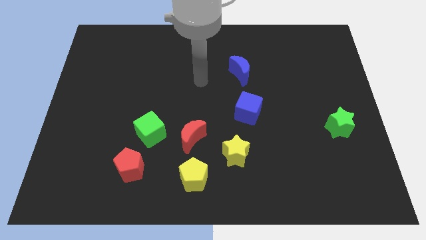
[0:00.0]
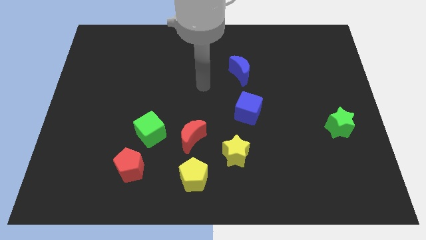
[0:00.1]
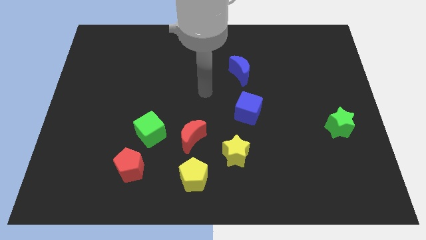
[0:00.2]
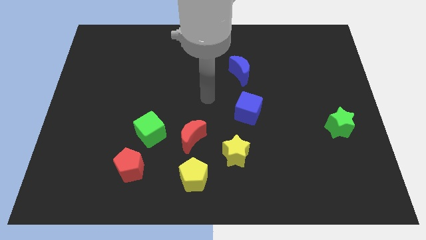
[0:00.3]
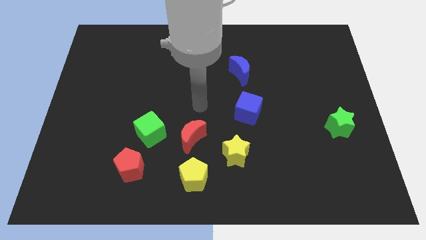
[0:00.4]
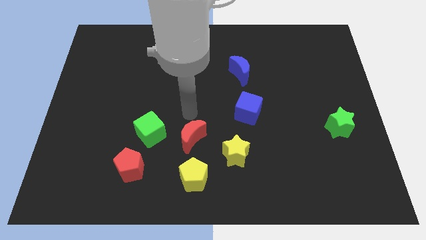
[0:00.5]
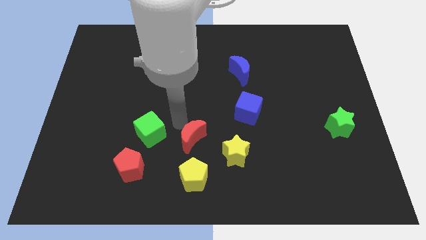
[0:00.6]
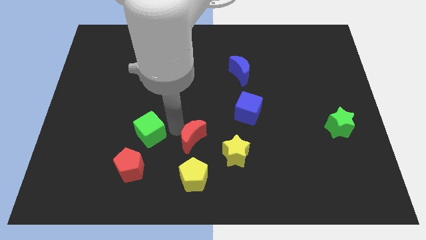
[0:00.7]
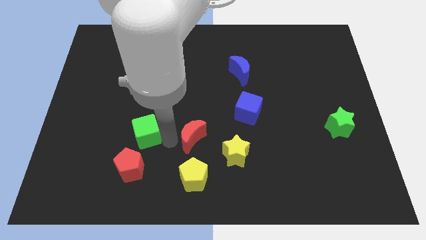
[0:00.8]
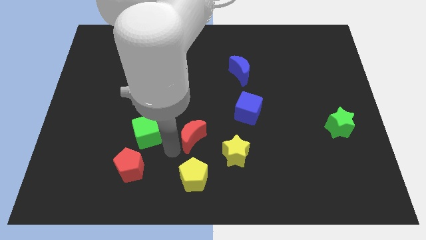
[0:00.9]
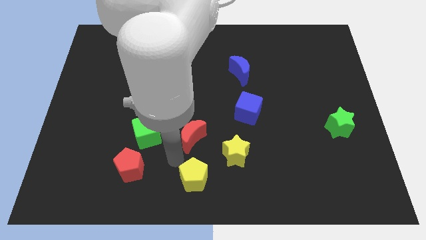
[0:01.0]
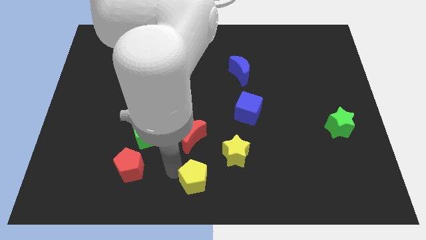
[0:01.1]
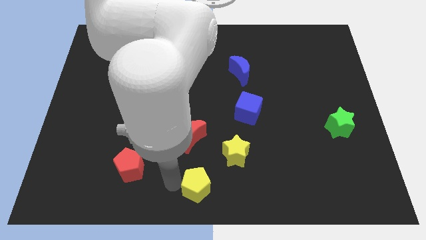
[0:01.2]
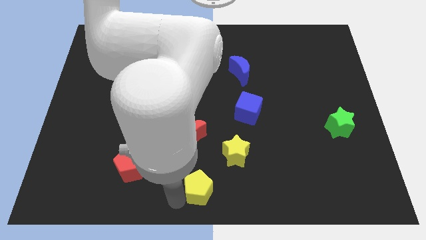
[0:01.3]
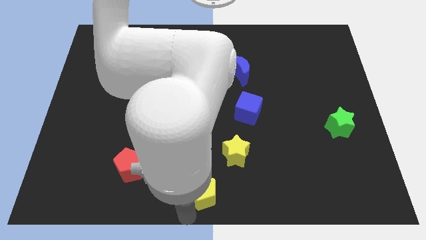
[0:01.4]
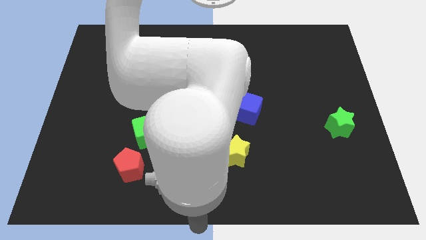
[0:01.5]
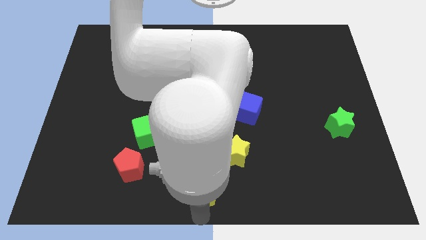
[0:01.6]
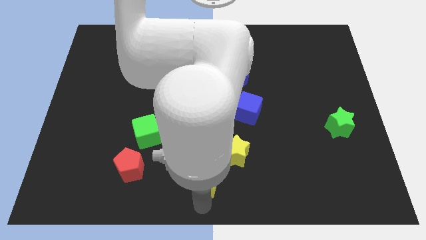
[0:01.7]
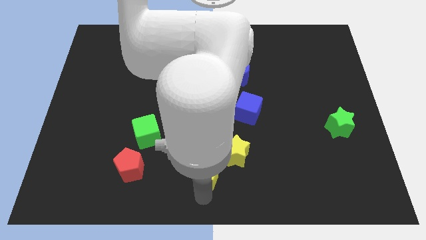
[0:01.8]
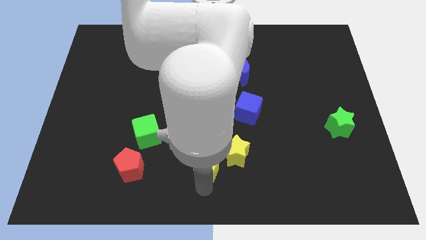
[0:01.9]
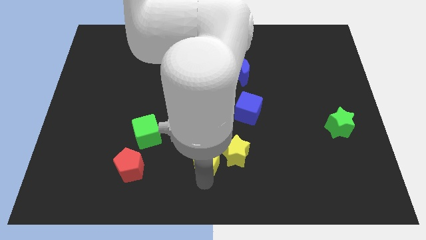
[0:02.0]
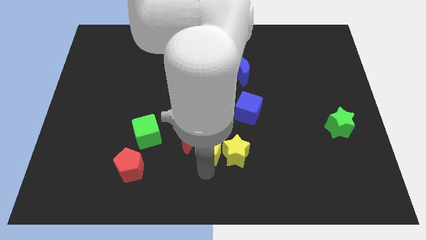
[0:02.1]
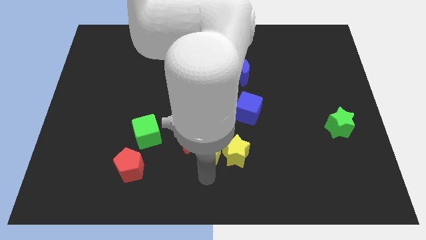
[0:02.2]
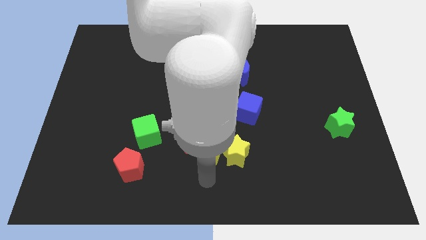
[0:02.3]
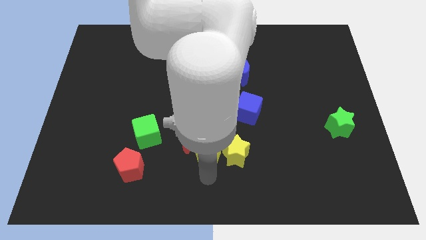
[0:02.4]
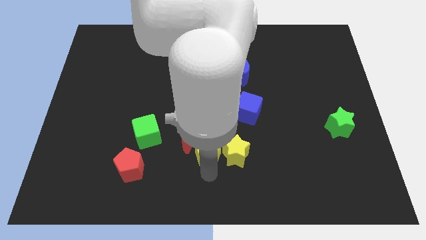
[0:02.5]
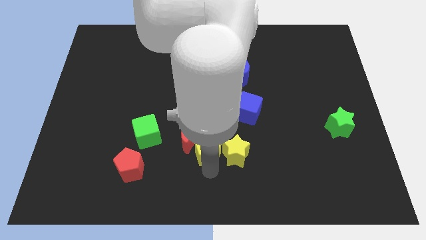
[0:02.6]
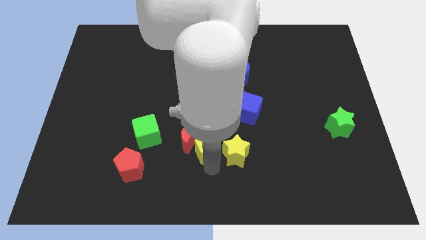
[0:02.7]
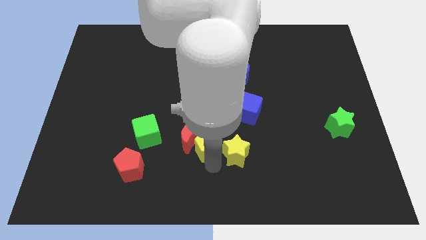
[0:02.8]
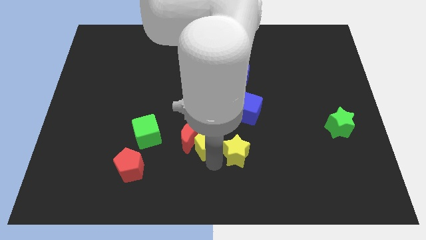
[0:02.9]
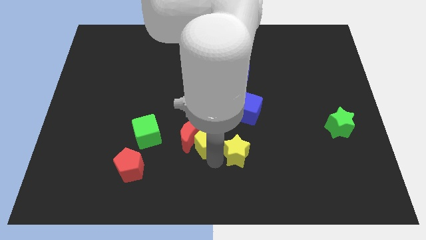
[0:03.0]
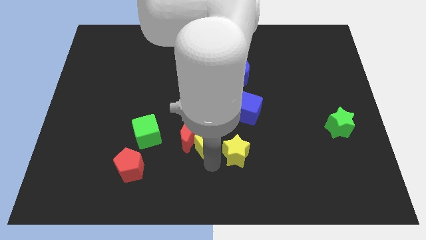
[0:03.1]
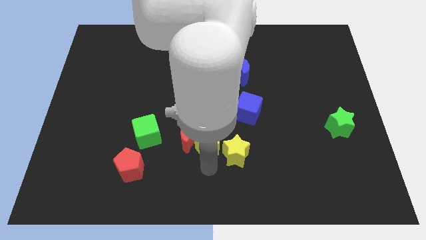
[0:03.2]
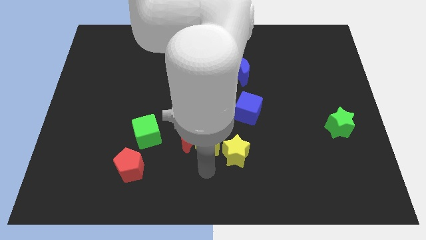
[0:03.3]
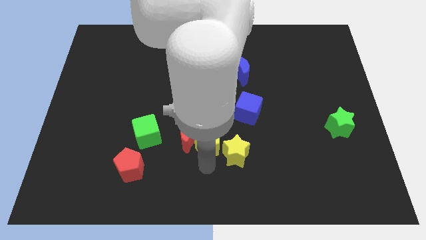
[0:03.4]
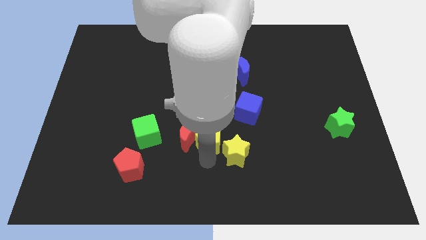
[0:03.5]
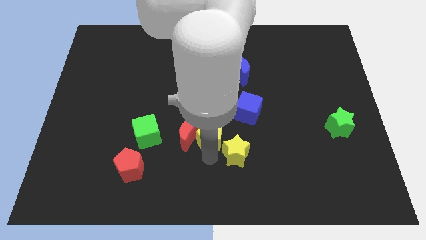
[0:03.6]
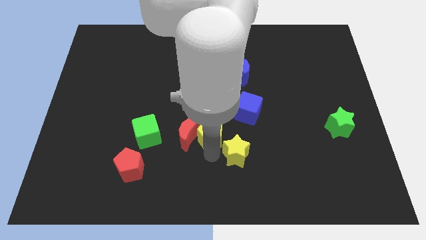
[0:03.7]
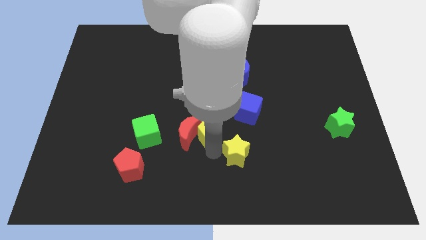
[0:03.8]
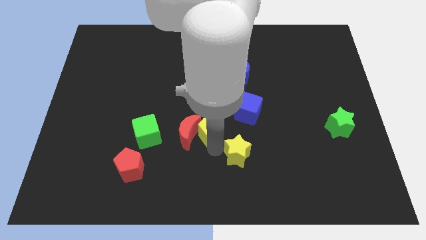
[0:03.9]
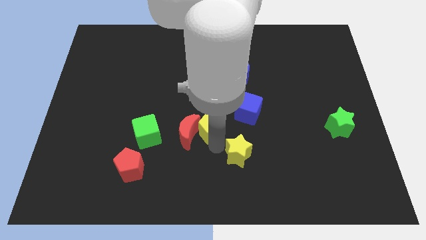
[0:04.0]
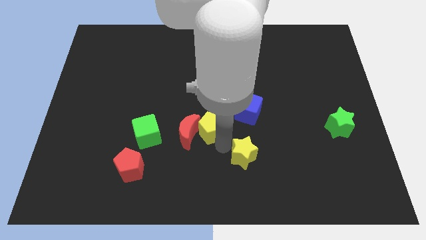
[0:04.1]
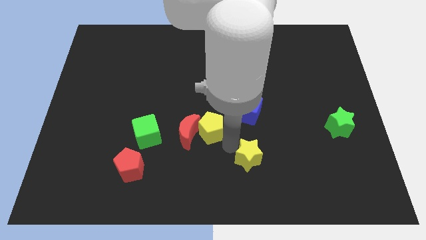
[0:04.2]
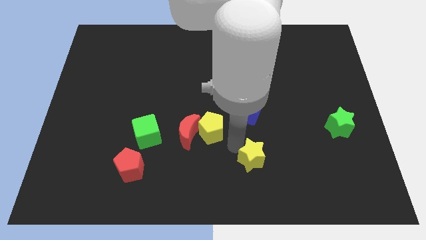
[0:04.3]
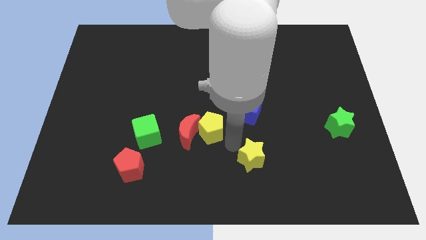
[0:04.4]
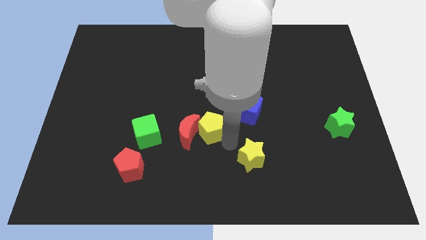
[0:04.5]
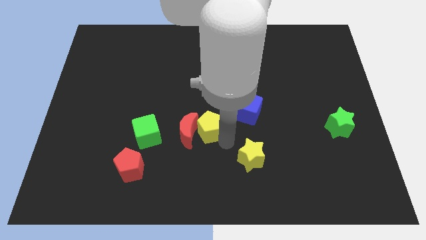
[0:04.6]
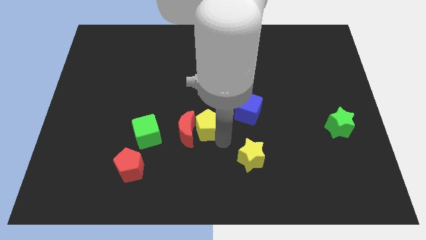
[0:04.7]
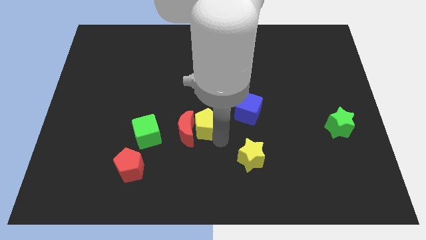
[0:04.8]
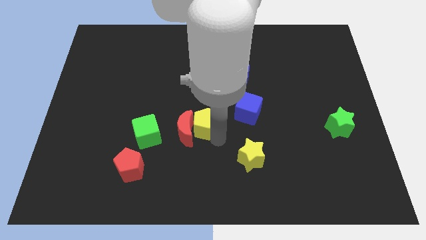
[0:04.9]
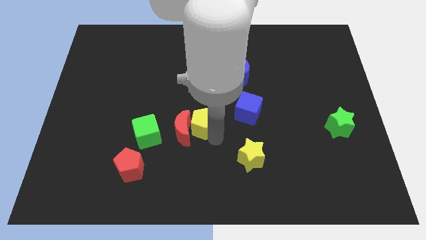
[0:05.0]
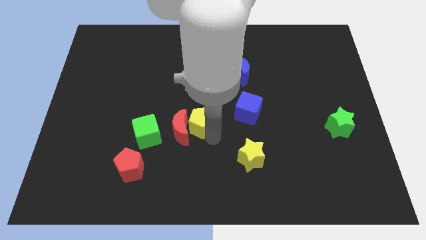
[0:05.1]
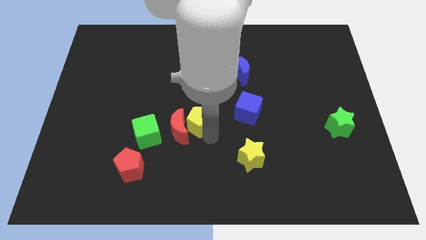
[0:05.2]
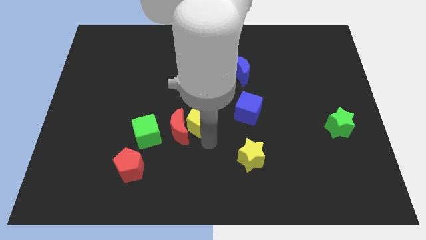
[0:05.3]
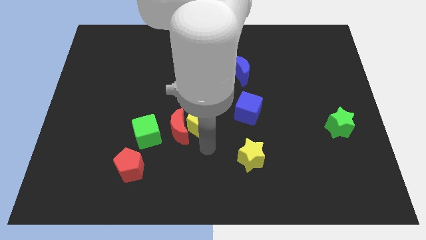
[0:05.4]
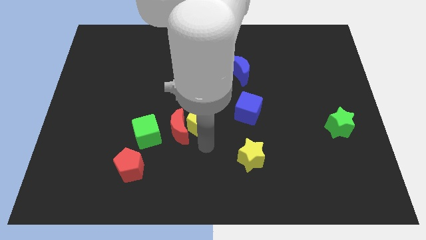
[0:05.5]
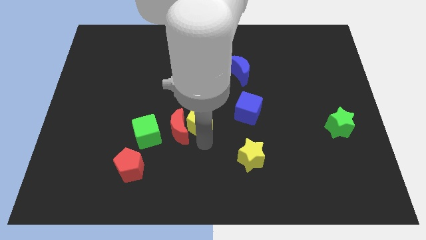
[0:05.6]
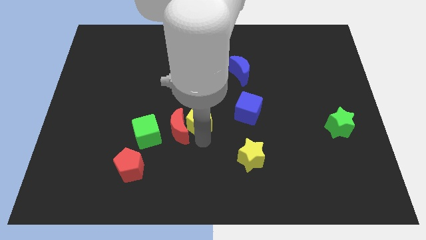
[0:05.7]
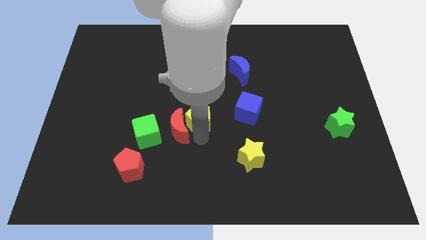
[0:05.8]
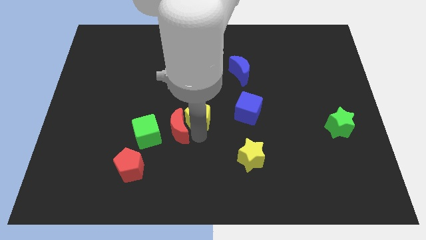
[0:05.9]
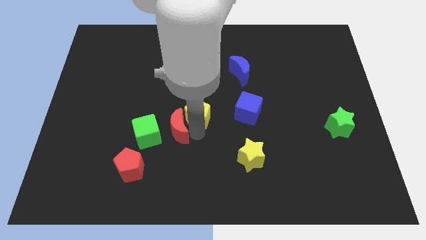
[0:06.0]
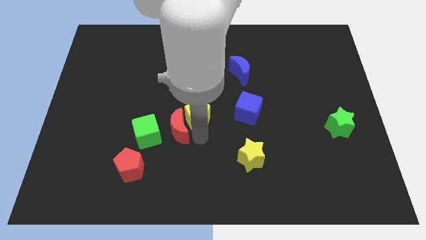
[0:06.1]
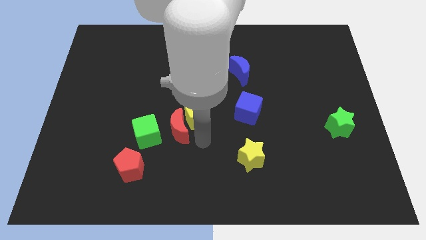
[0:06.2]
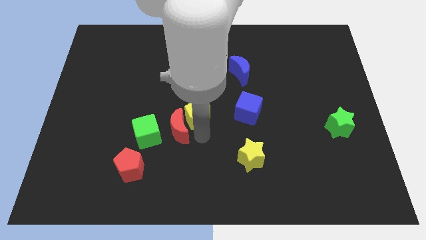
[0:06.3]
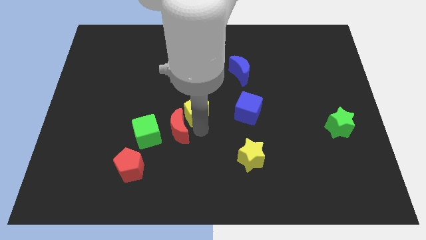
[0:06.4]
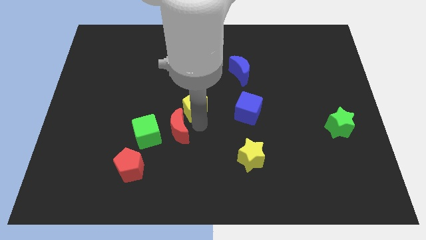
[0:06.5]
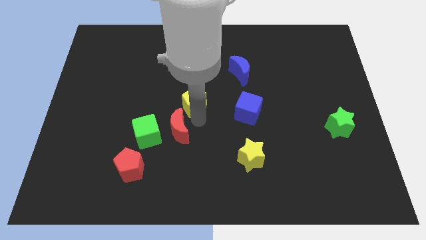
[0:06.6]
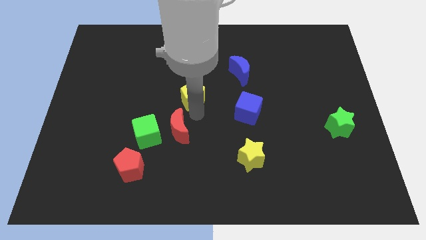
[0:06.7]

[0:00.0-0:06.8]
push the yellow pentagon upwards

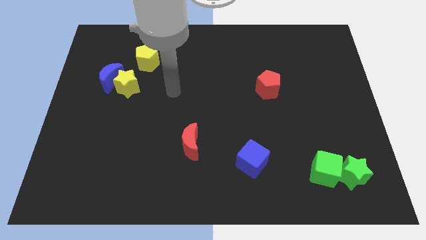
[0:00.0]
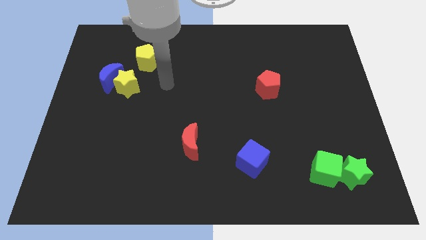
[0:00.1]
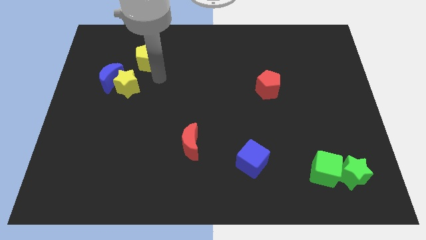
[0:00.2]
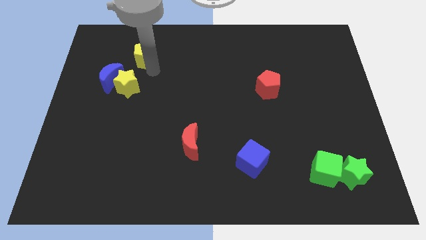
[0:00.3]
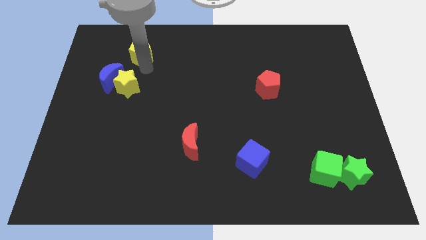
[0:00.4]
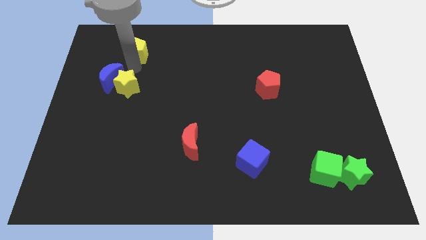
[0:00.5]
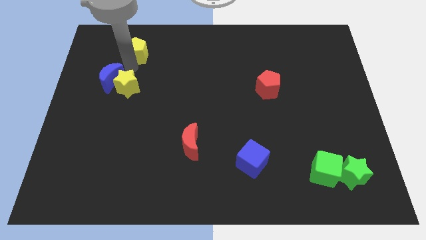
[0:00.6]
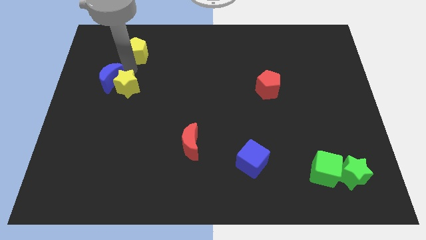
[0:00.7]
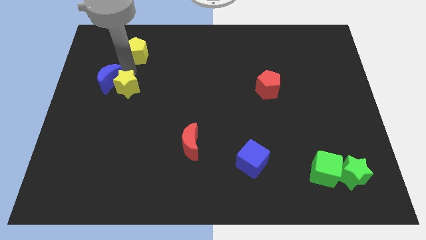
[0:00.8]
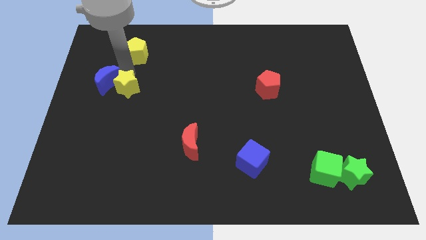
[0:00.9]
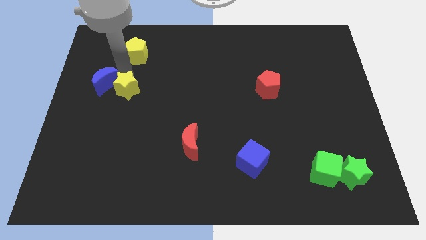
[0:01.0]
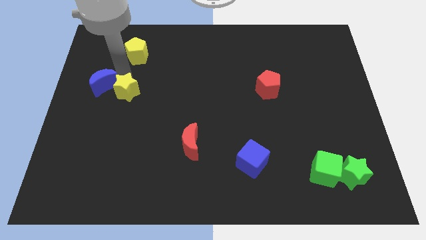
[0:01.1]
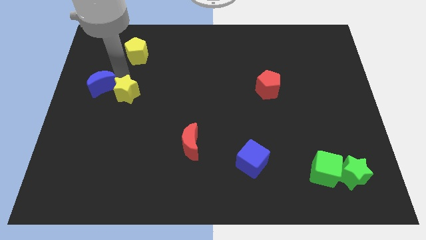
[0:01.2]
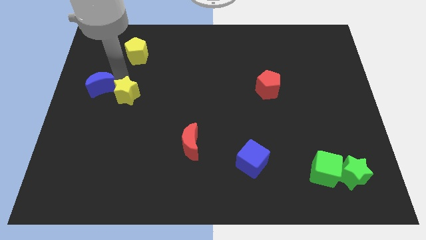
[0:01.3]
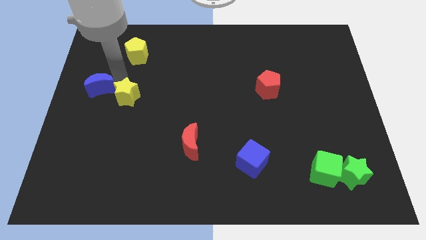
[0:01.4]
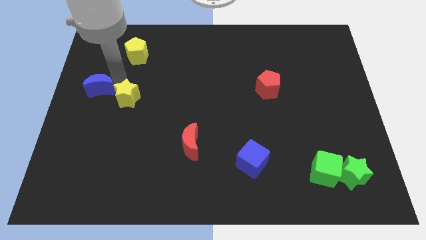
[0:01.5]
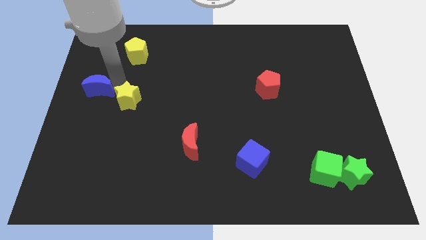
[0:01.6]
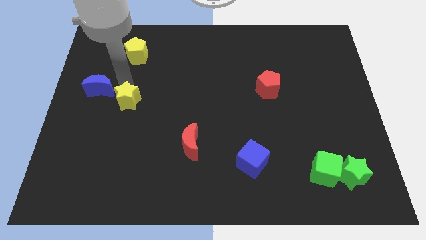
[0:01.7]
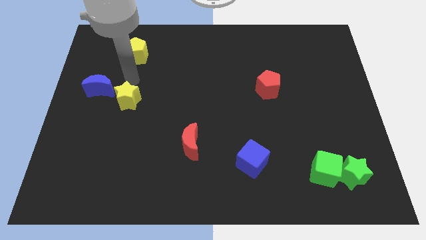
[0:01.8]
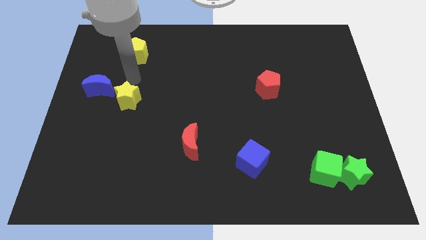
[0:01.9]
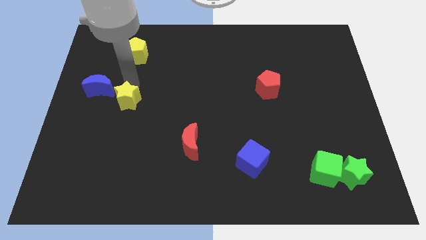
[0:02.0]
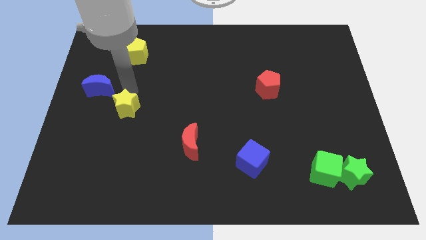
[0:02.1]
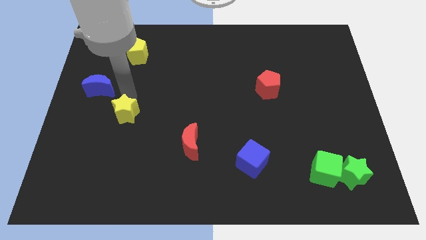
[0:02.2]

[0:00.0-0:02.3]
slightly slide the yellow star down
